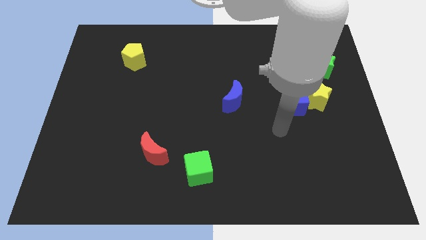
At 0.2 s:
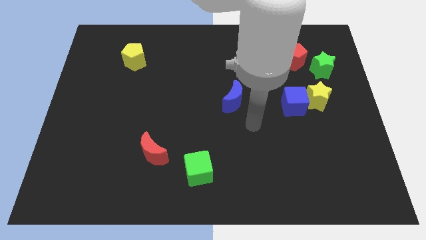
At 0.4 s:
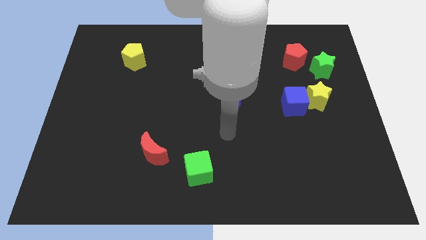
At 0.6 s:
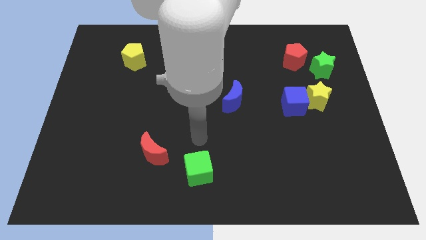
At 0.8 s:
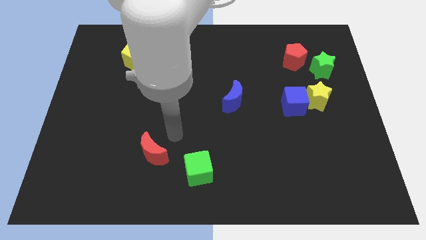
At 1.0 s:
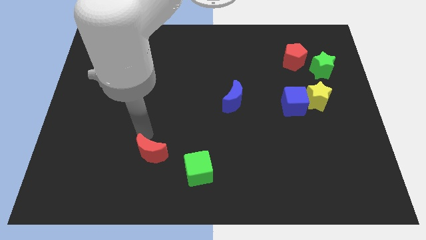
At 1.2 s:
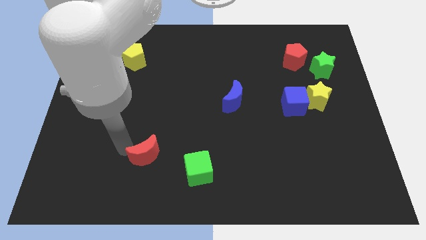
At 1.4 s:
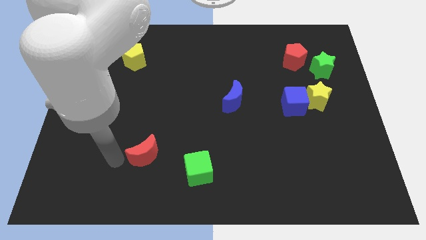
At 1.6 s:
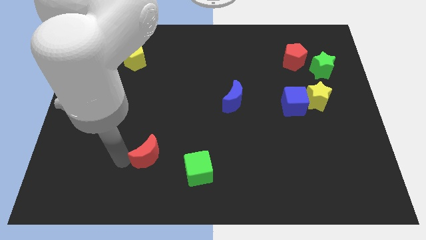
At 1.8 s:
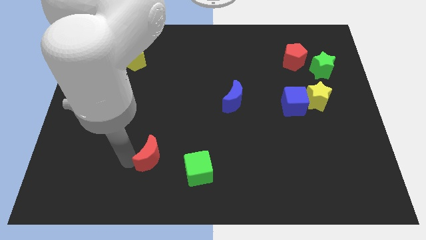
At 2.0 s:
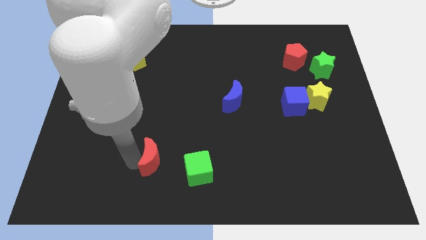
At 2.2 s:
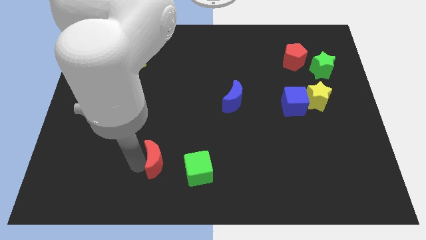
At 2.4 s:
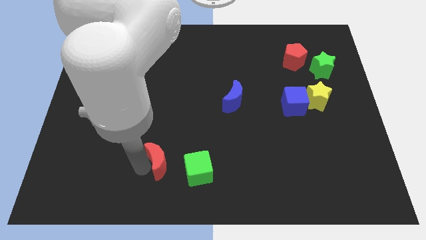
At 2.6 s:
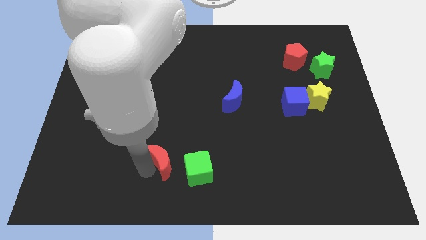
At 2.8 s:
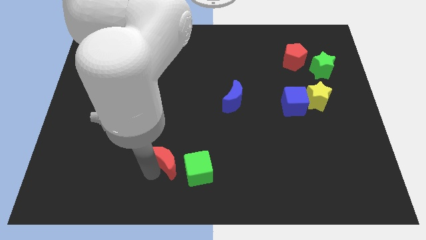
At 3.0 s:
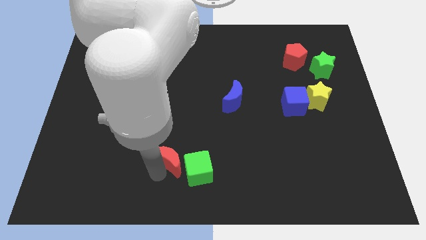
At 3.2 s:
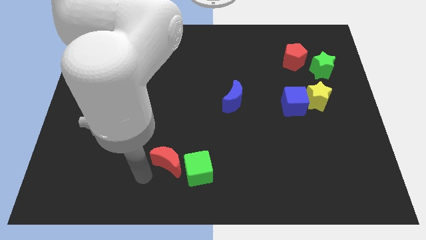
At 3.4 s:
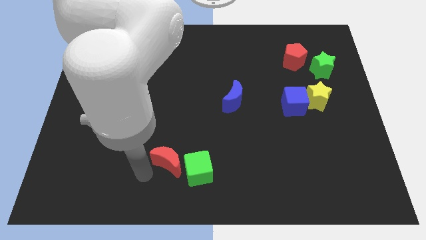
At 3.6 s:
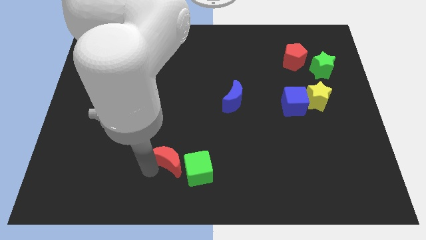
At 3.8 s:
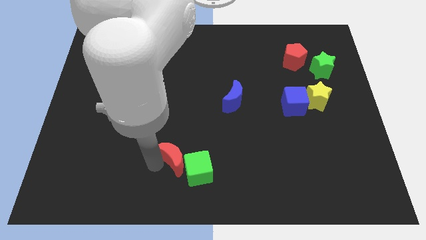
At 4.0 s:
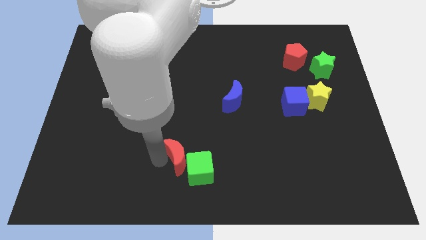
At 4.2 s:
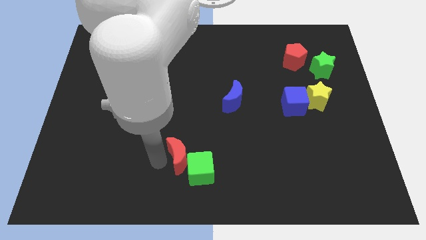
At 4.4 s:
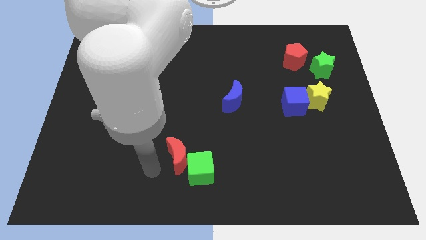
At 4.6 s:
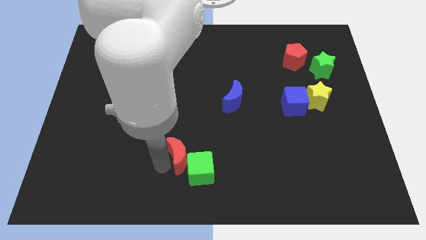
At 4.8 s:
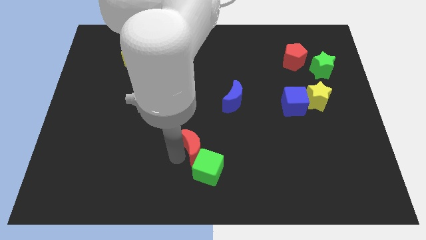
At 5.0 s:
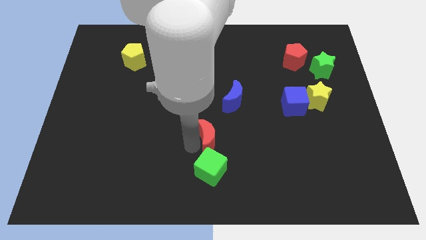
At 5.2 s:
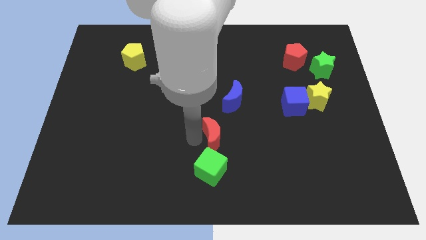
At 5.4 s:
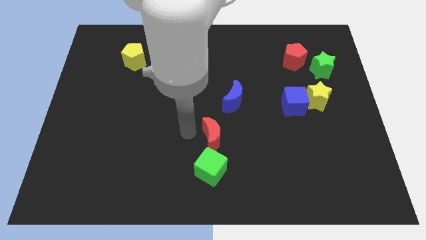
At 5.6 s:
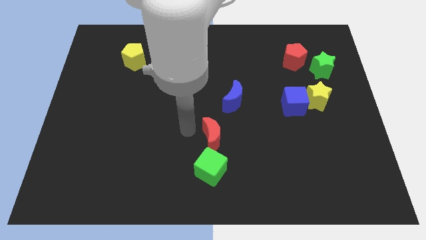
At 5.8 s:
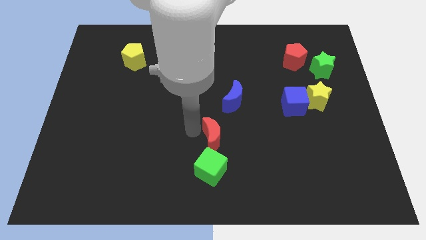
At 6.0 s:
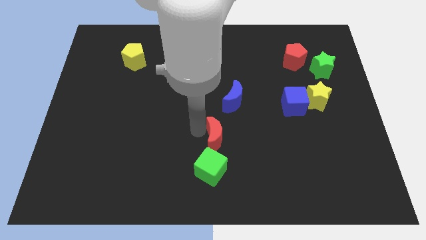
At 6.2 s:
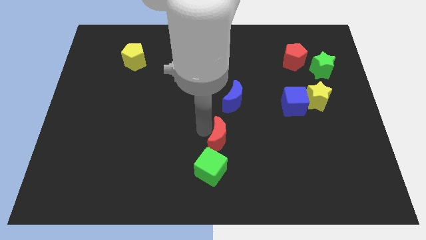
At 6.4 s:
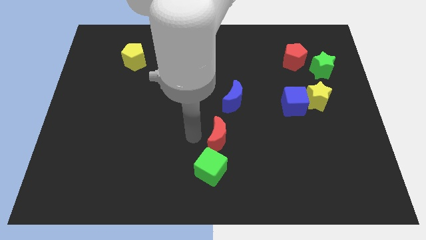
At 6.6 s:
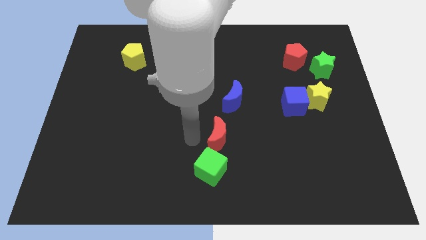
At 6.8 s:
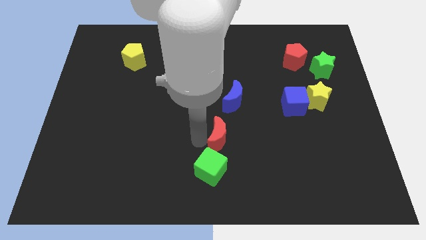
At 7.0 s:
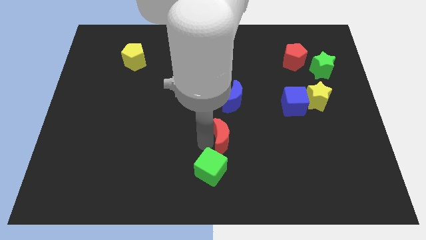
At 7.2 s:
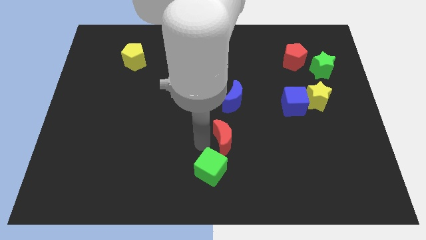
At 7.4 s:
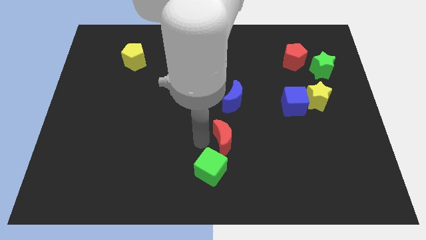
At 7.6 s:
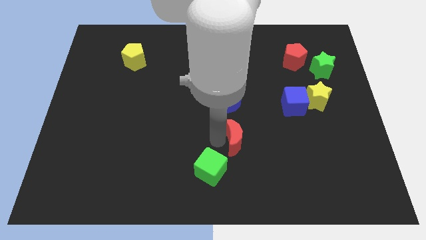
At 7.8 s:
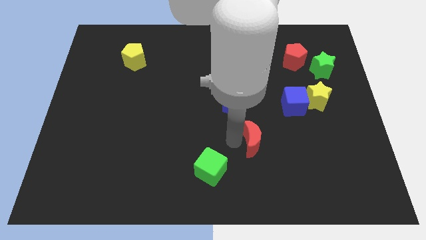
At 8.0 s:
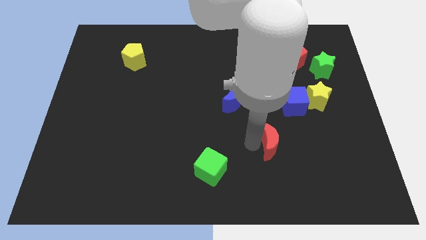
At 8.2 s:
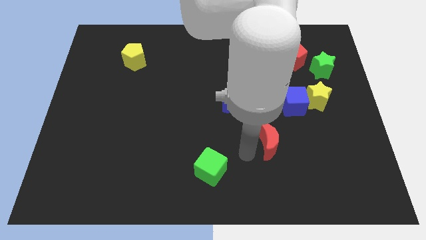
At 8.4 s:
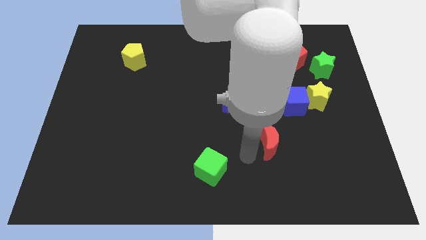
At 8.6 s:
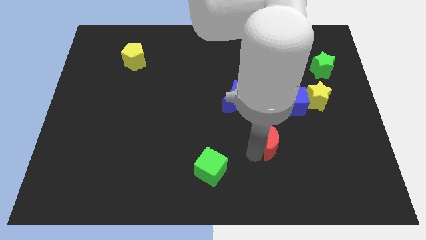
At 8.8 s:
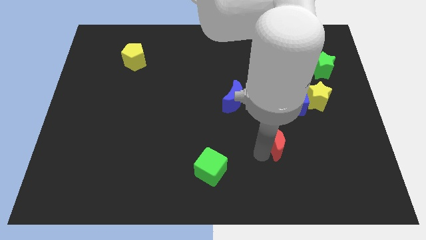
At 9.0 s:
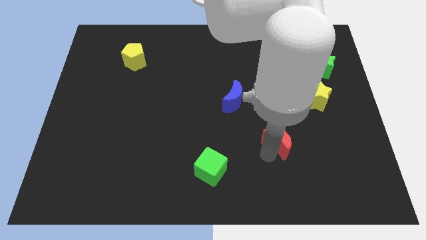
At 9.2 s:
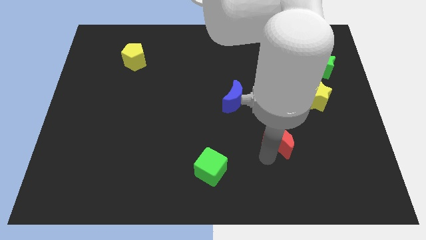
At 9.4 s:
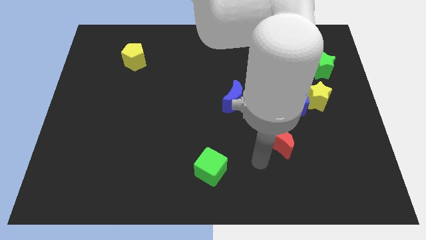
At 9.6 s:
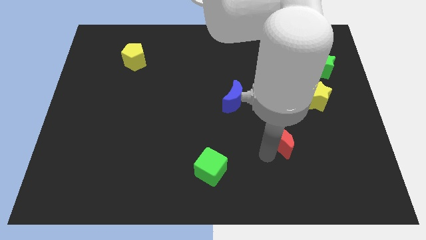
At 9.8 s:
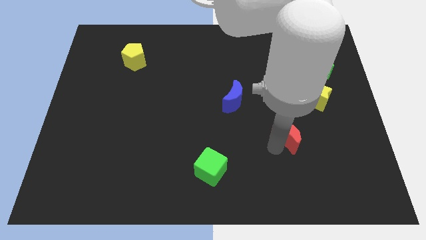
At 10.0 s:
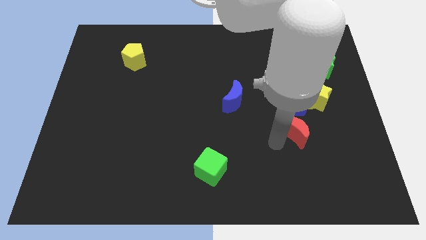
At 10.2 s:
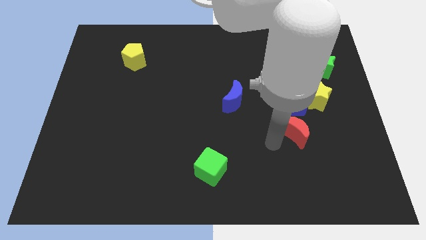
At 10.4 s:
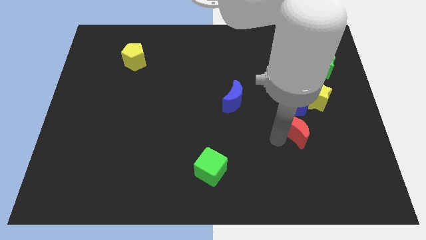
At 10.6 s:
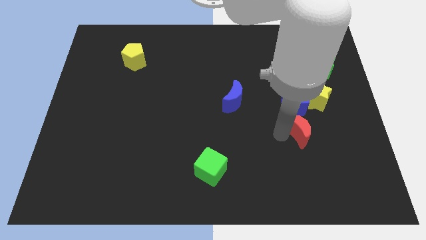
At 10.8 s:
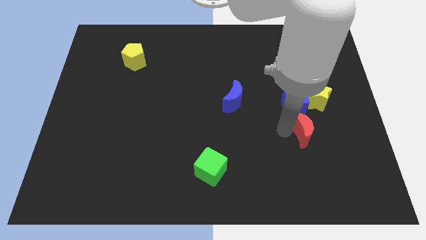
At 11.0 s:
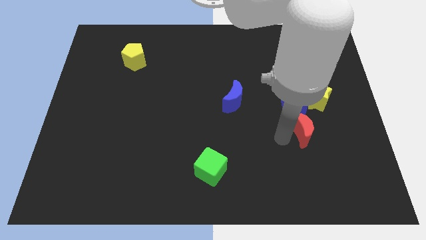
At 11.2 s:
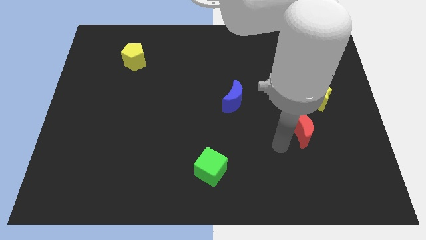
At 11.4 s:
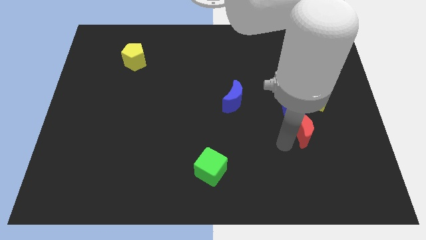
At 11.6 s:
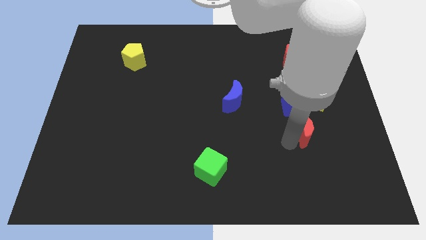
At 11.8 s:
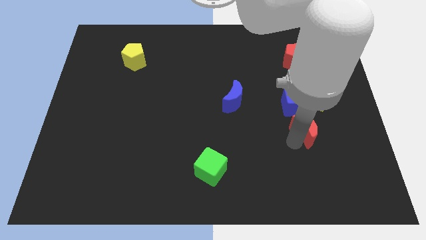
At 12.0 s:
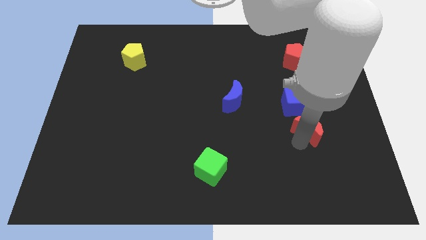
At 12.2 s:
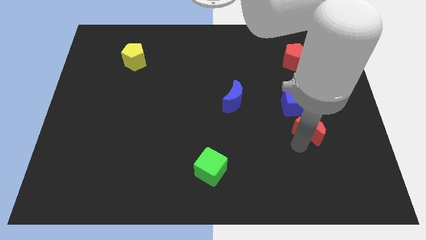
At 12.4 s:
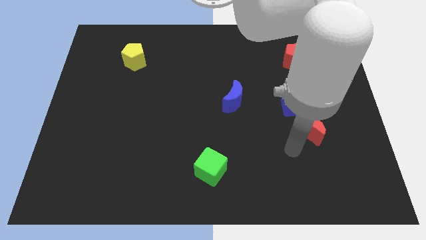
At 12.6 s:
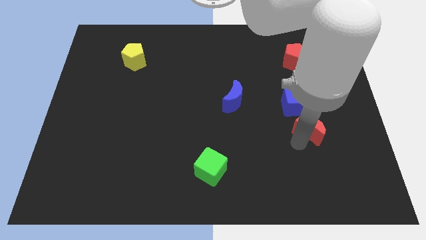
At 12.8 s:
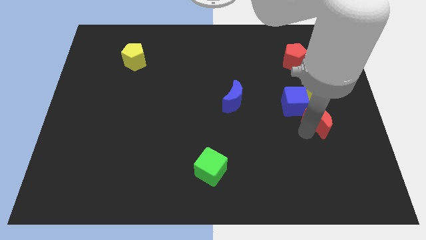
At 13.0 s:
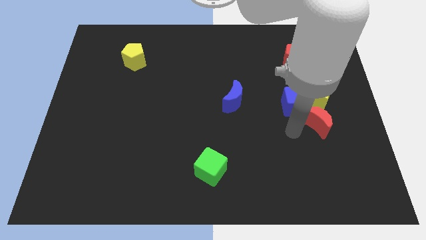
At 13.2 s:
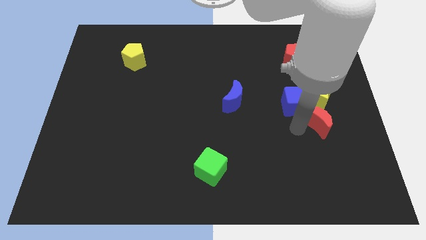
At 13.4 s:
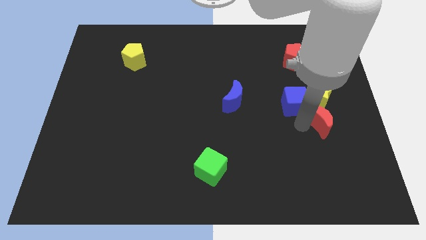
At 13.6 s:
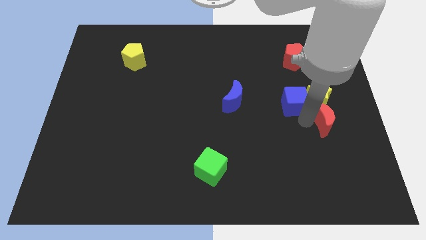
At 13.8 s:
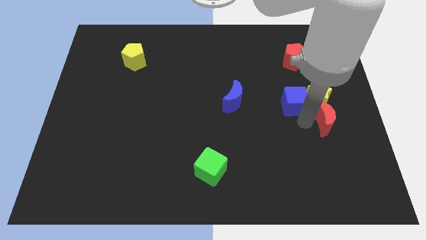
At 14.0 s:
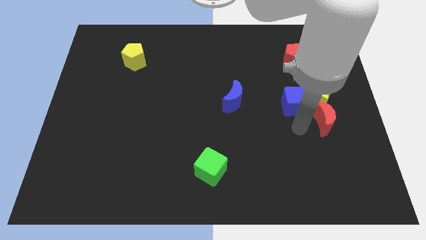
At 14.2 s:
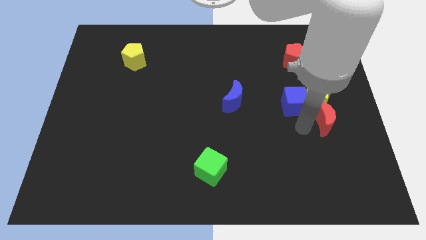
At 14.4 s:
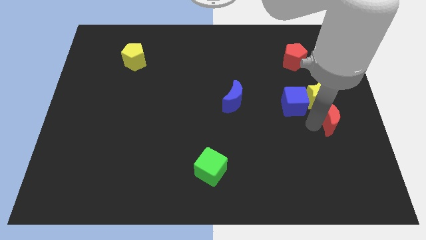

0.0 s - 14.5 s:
move the red moon to the right side of the board
